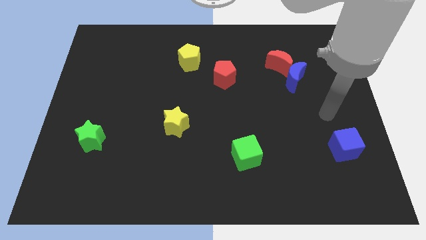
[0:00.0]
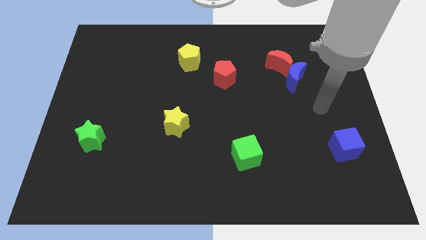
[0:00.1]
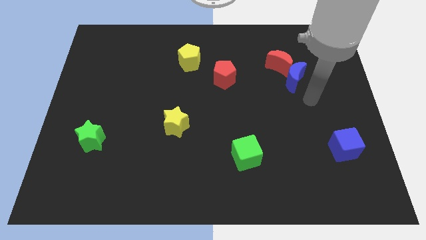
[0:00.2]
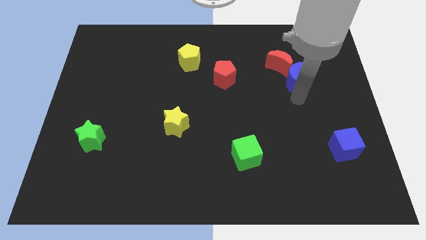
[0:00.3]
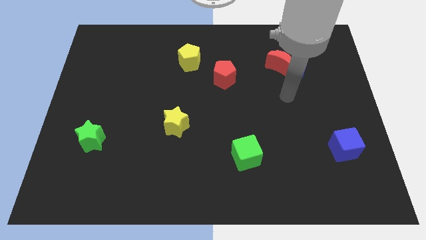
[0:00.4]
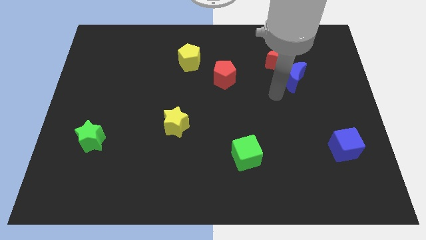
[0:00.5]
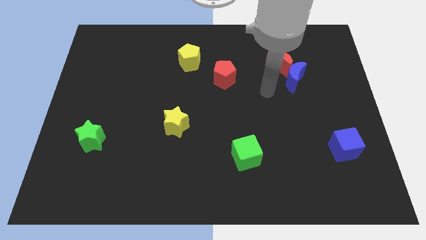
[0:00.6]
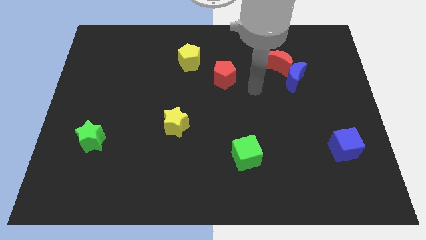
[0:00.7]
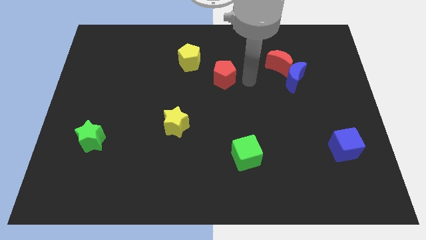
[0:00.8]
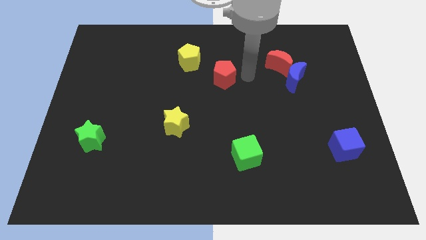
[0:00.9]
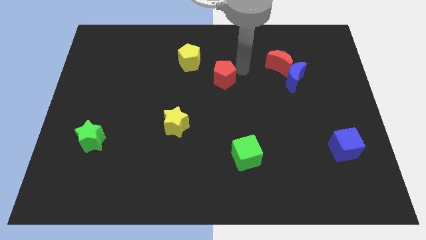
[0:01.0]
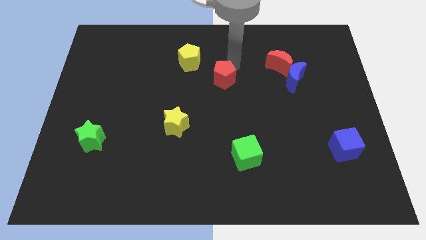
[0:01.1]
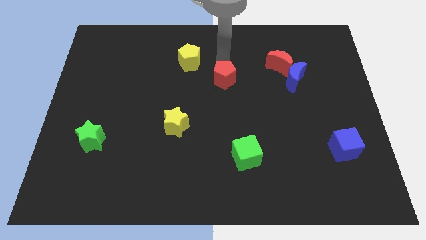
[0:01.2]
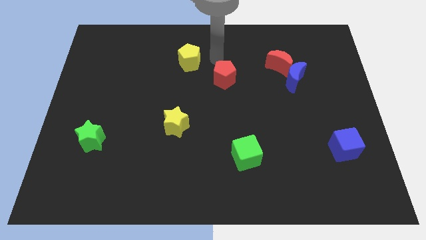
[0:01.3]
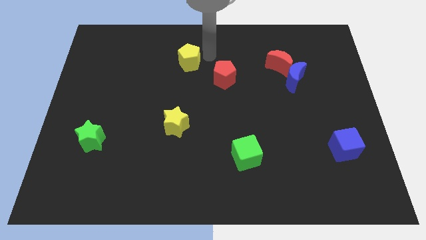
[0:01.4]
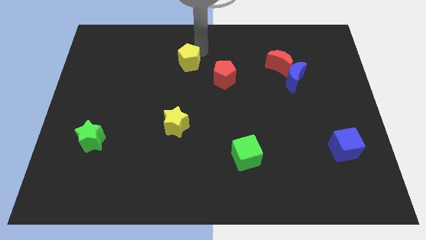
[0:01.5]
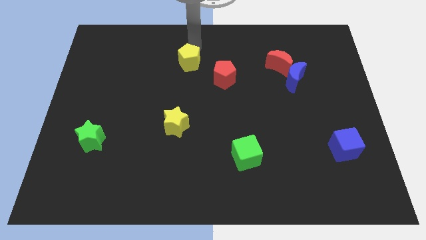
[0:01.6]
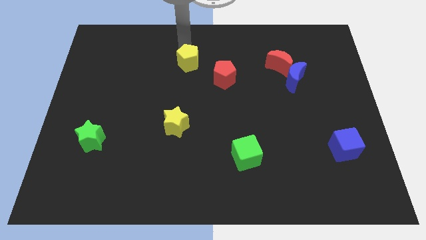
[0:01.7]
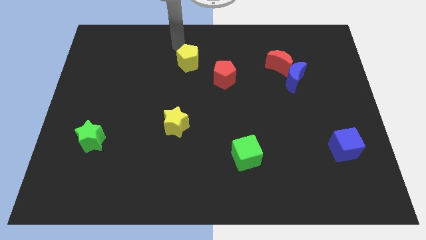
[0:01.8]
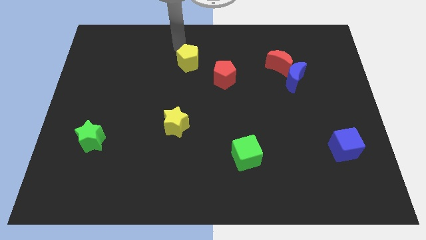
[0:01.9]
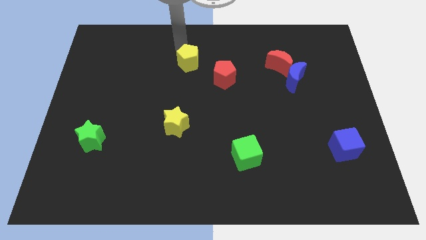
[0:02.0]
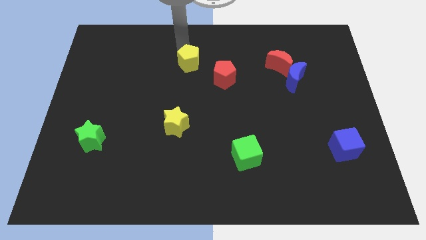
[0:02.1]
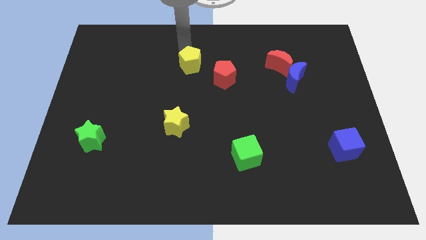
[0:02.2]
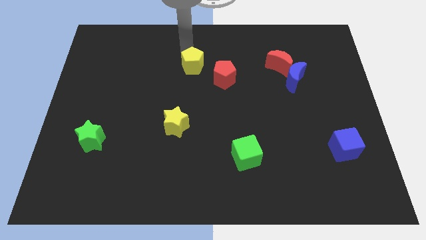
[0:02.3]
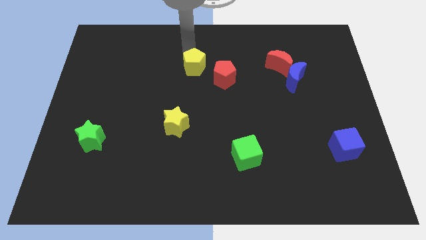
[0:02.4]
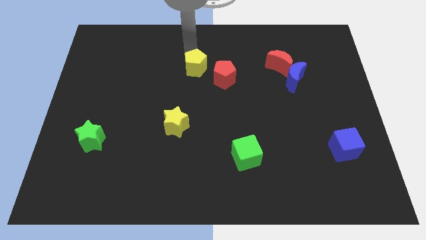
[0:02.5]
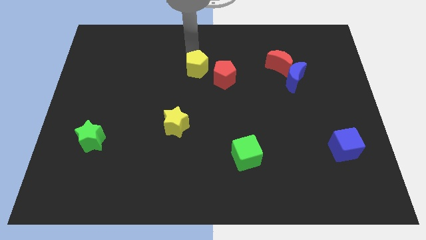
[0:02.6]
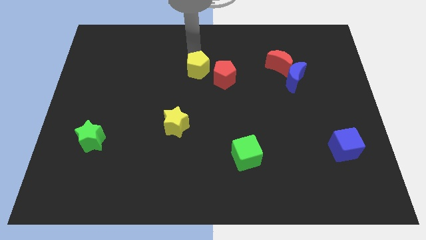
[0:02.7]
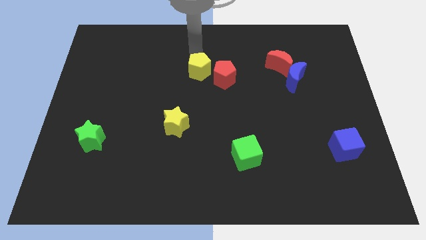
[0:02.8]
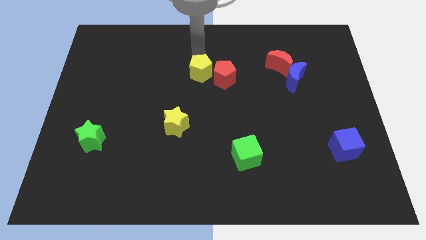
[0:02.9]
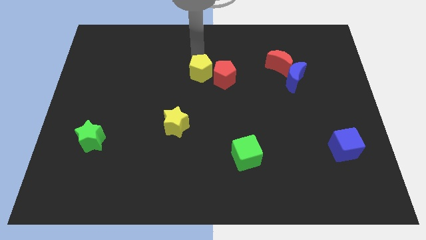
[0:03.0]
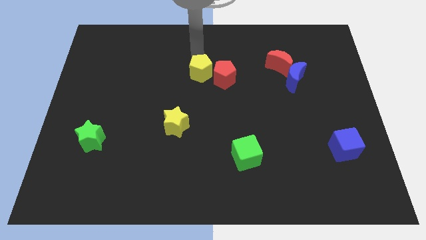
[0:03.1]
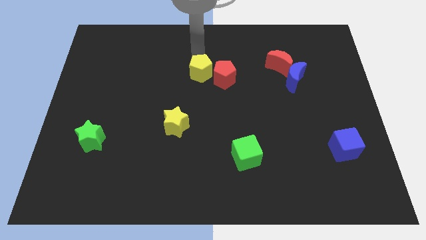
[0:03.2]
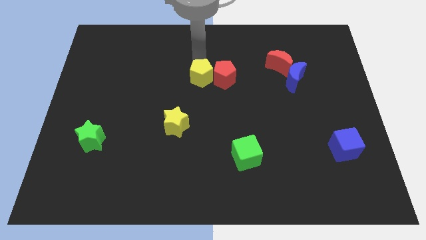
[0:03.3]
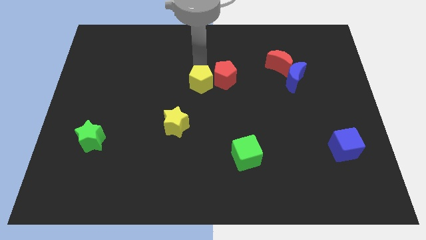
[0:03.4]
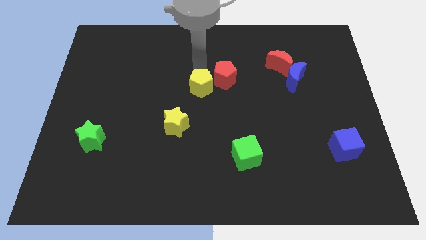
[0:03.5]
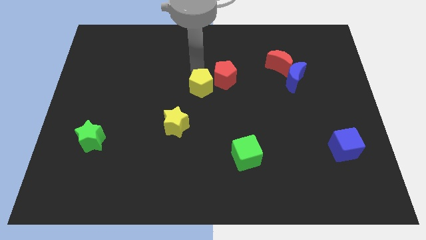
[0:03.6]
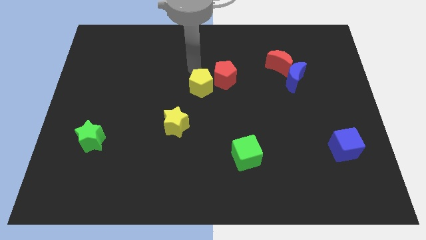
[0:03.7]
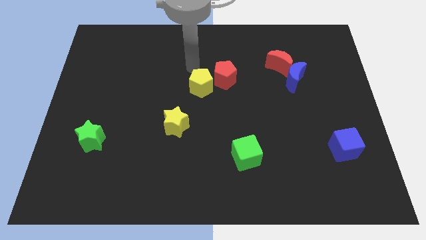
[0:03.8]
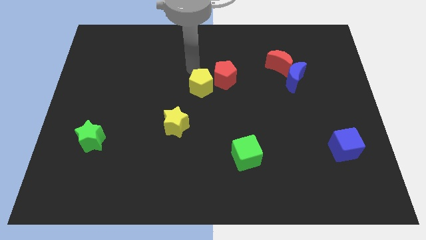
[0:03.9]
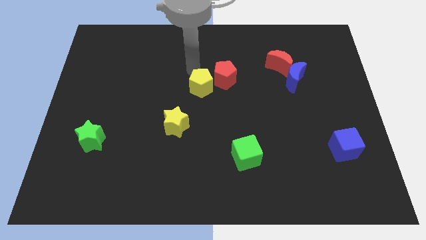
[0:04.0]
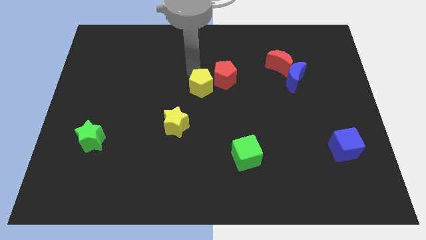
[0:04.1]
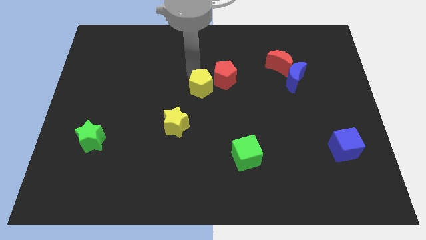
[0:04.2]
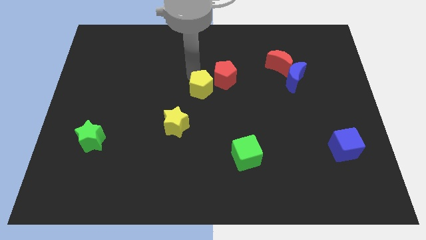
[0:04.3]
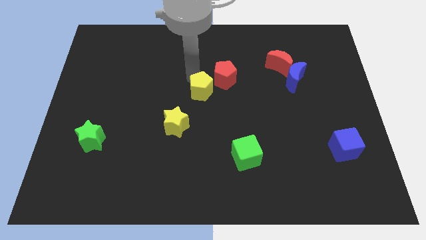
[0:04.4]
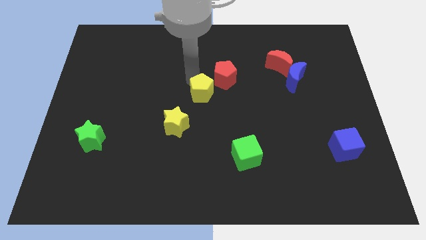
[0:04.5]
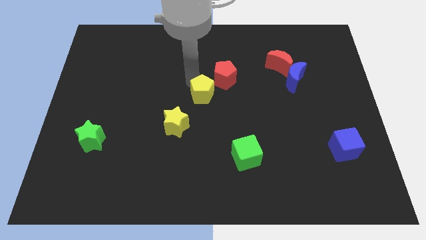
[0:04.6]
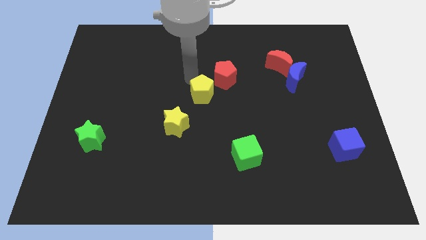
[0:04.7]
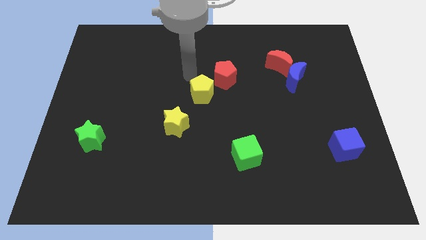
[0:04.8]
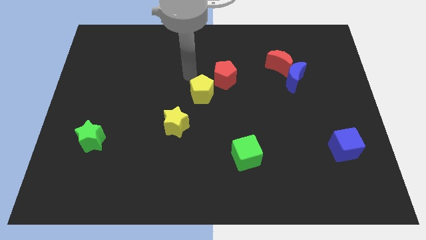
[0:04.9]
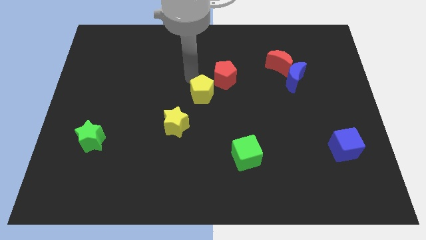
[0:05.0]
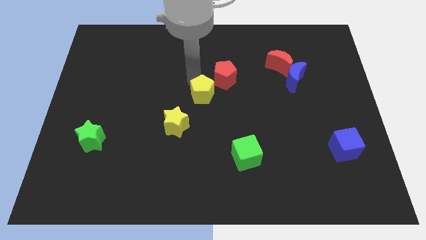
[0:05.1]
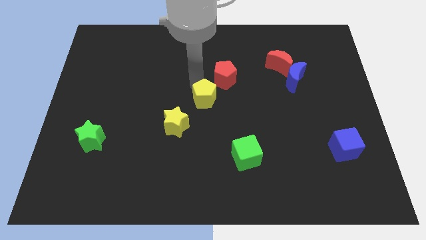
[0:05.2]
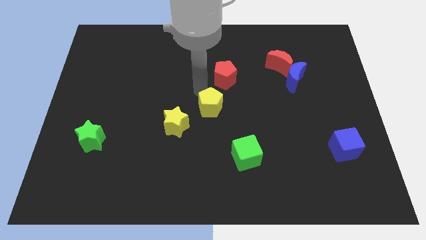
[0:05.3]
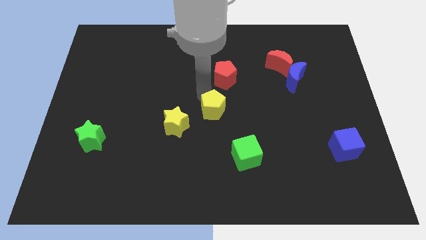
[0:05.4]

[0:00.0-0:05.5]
move the yellow pentagon to the right of the yellow star
